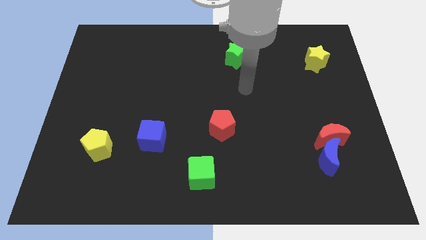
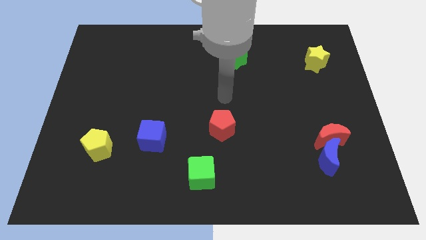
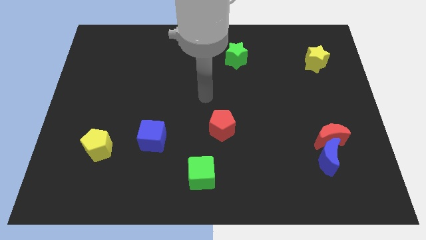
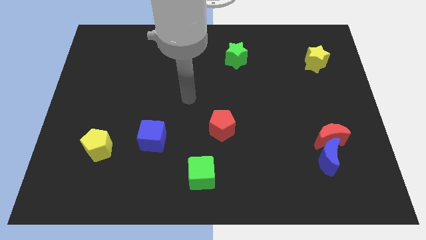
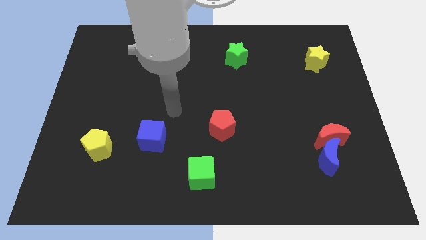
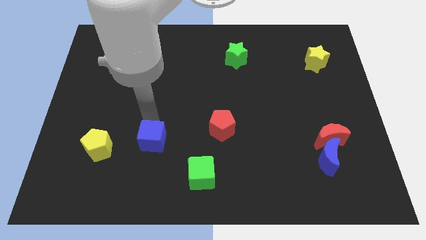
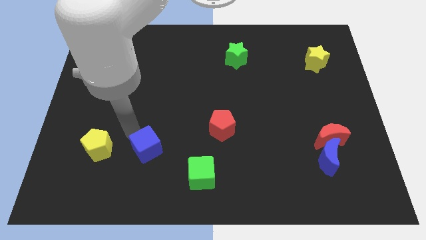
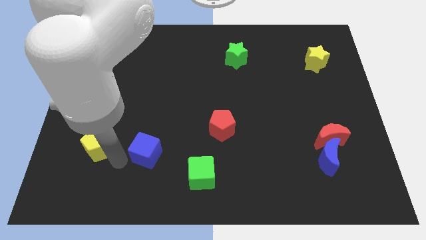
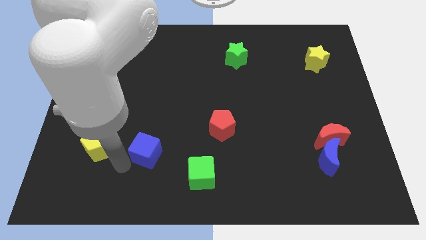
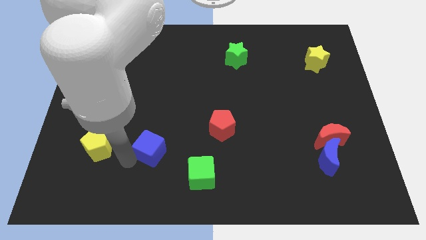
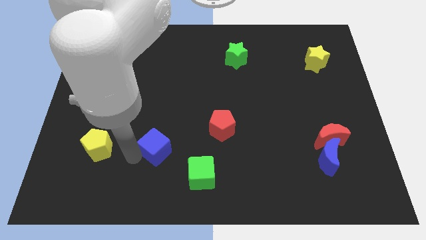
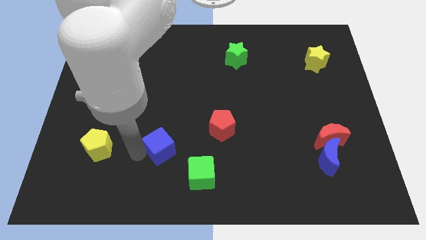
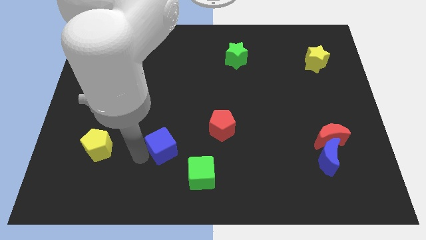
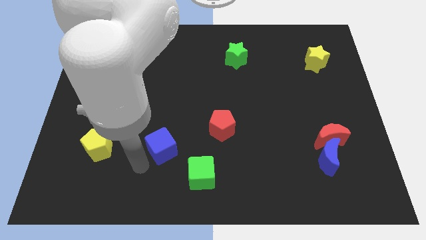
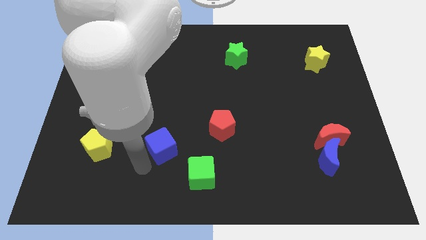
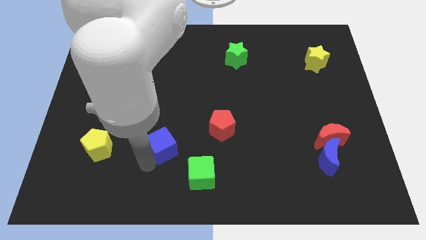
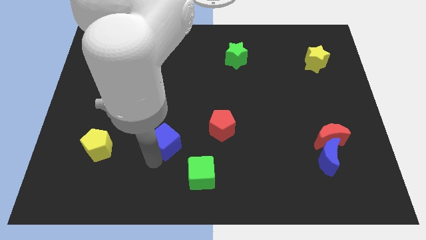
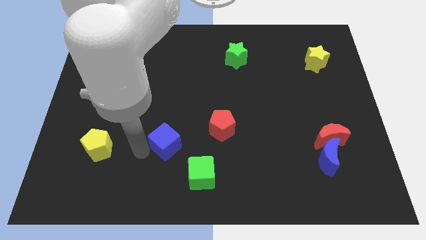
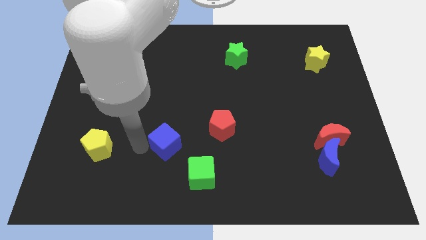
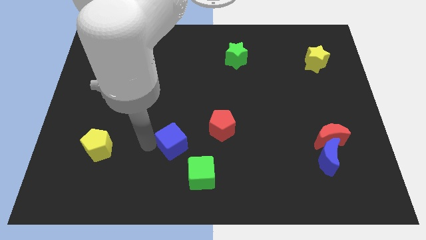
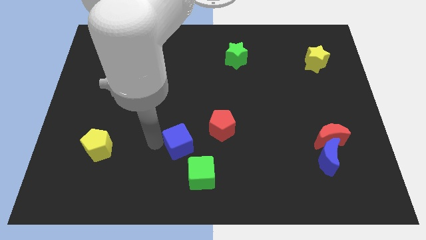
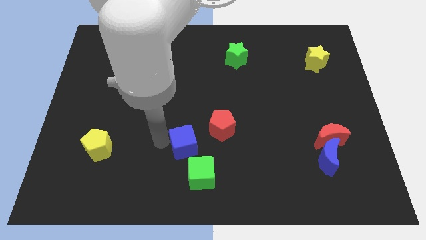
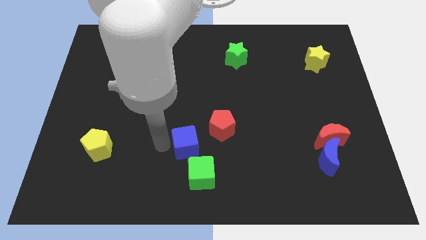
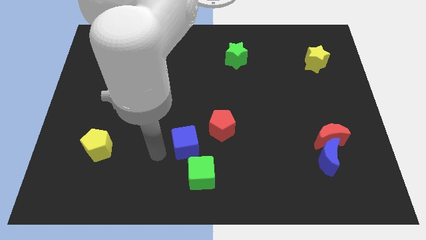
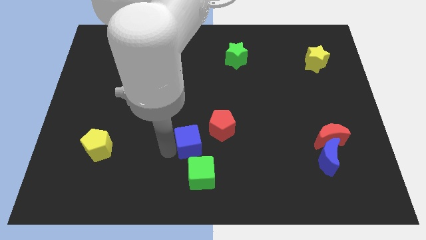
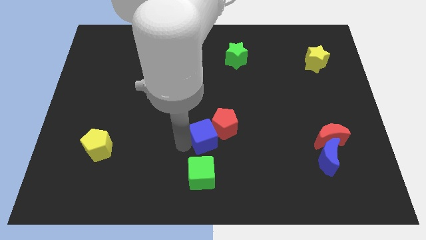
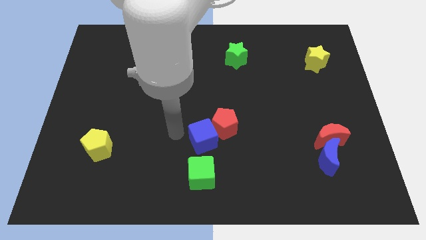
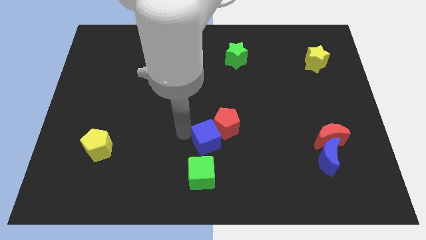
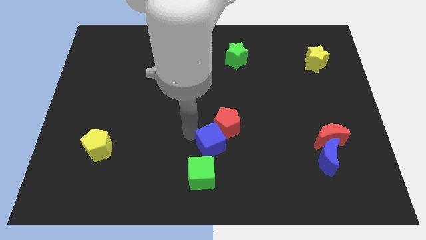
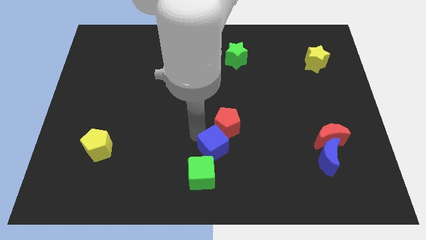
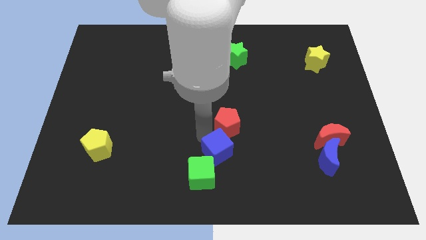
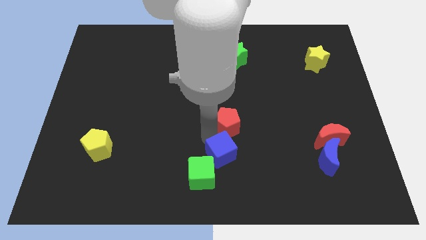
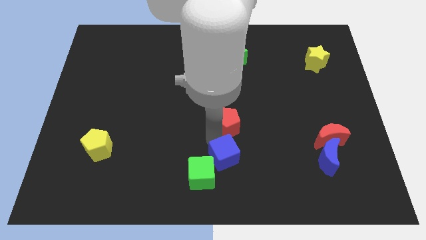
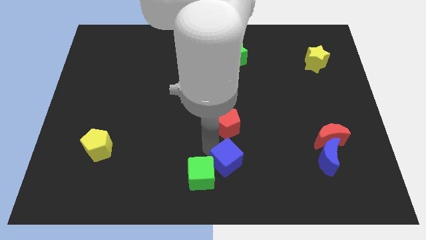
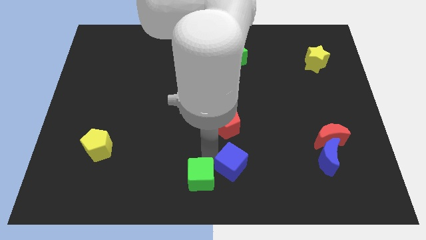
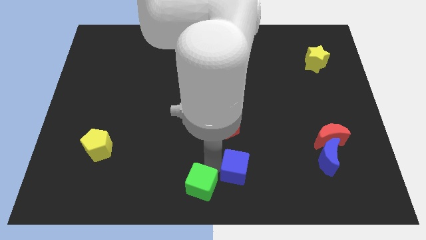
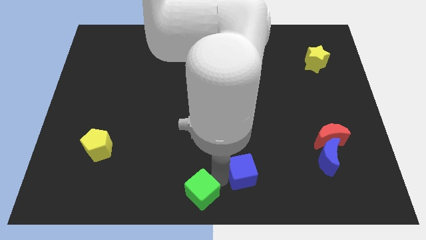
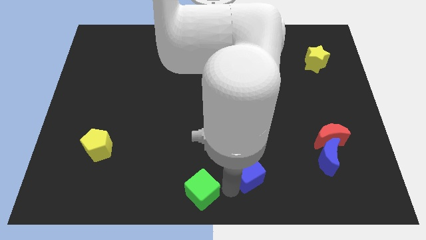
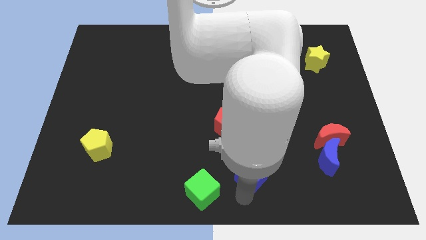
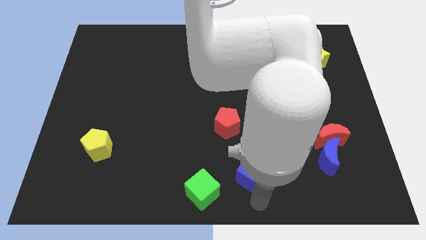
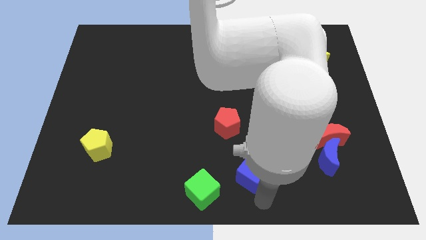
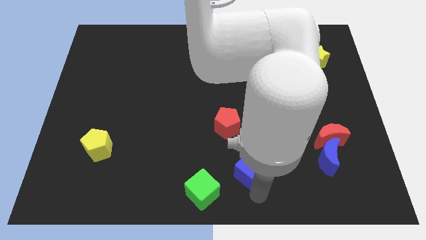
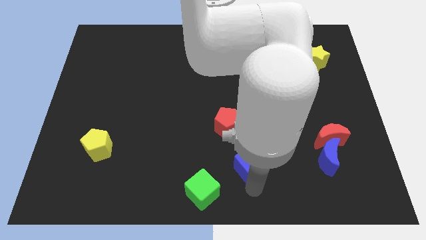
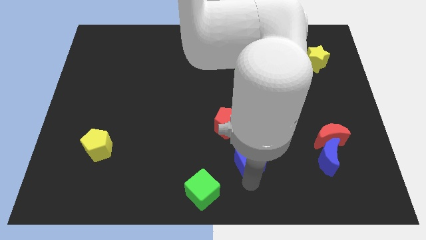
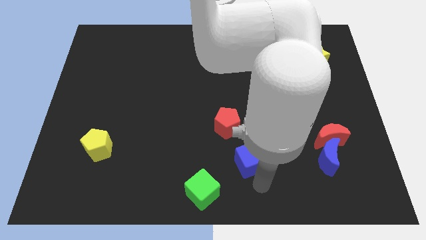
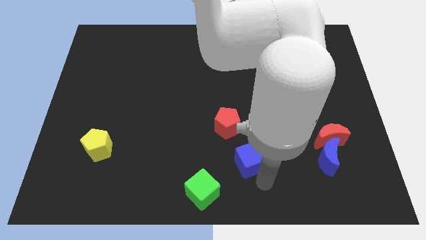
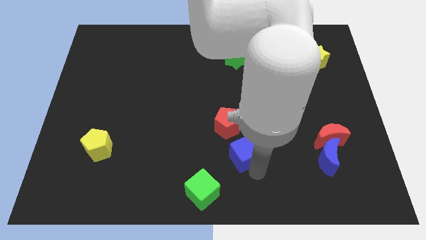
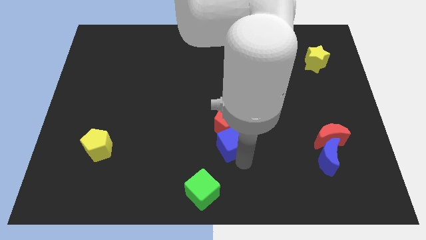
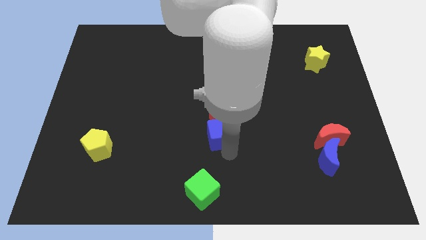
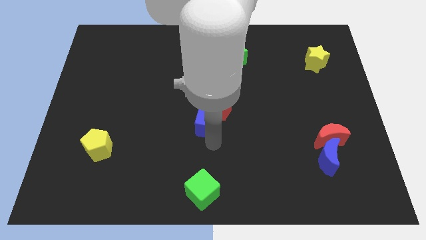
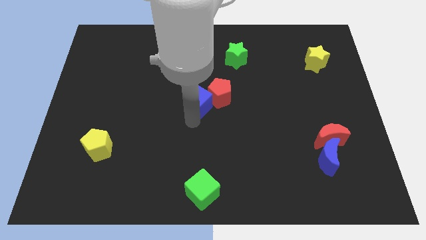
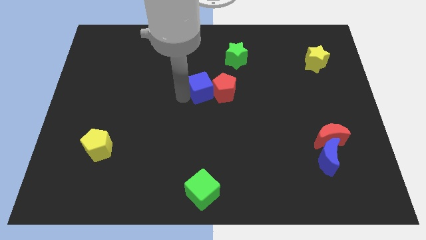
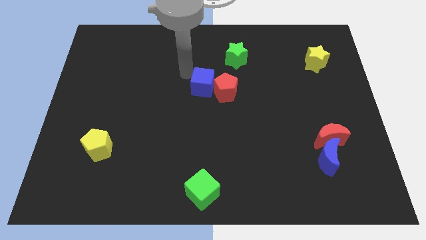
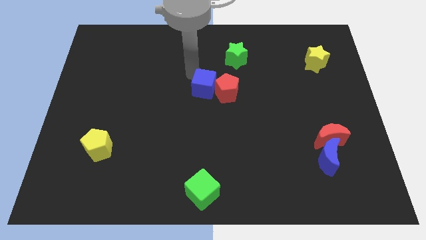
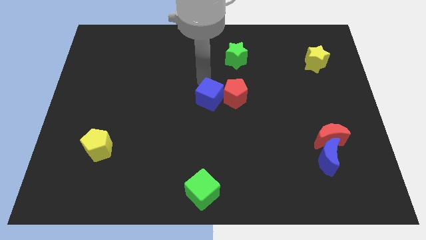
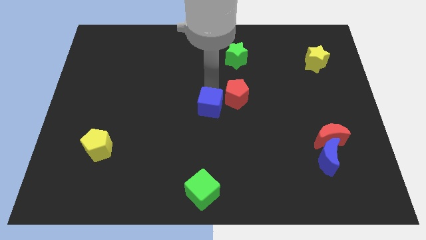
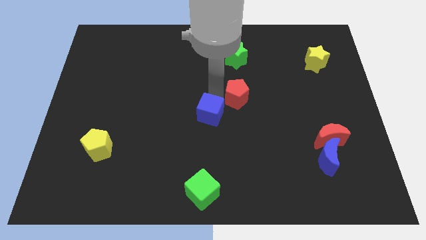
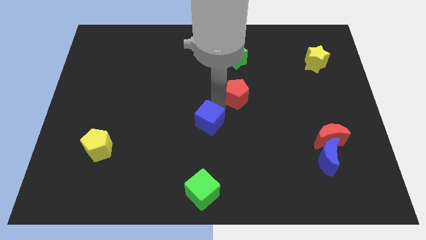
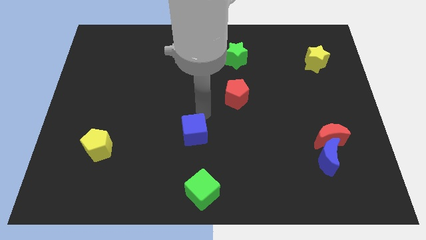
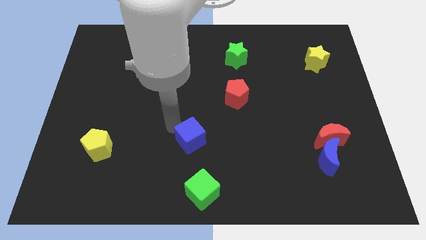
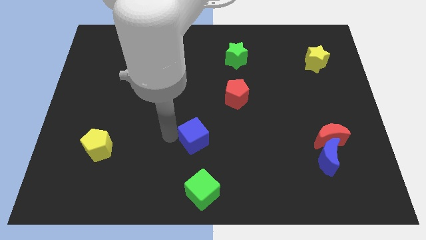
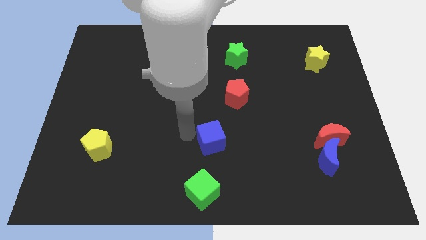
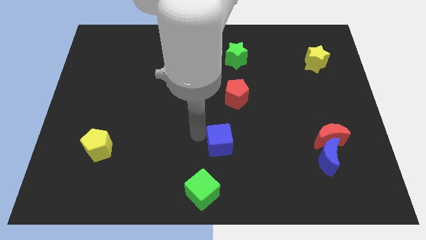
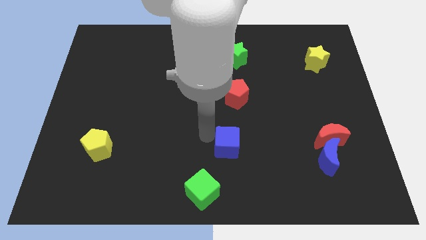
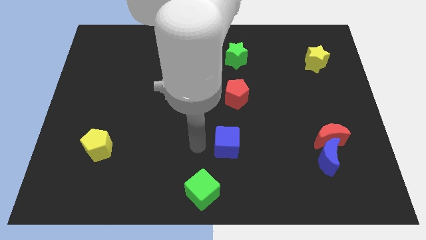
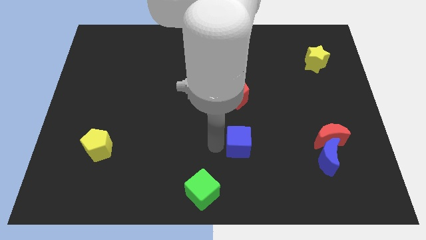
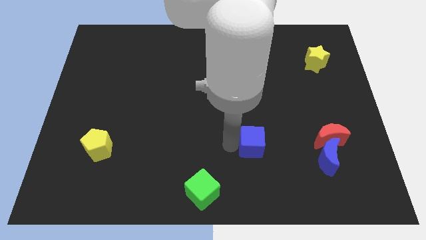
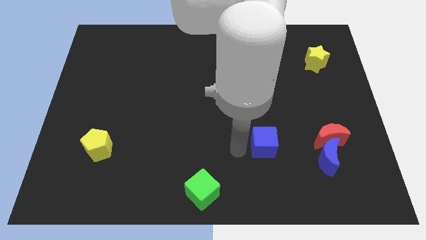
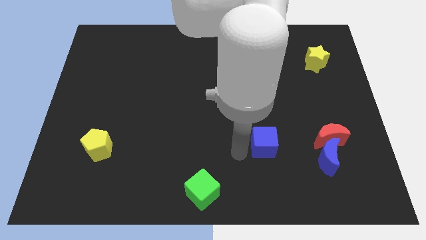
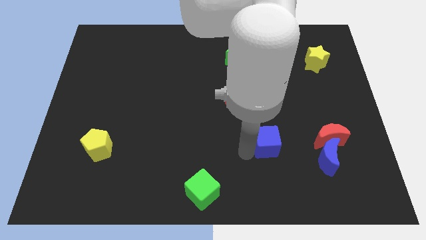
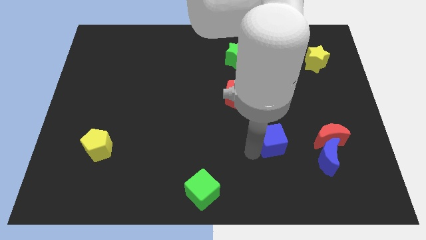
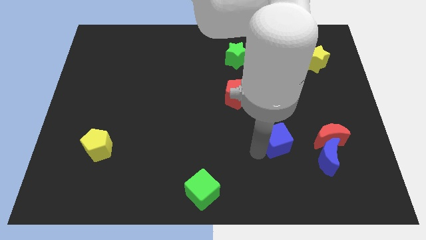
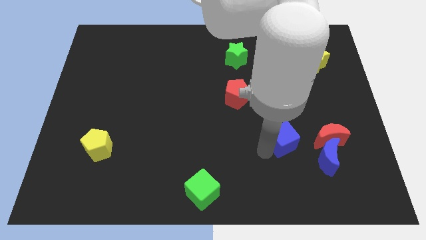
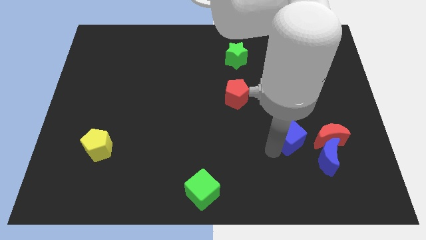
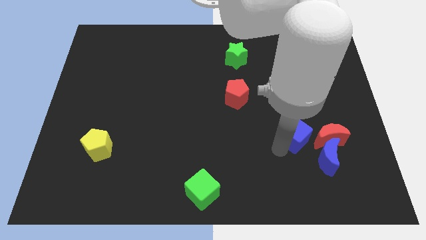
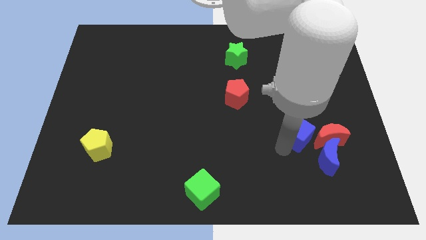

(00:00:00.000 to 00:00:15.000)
slide the blue cube to the top left of the red moon
